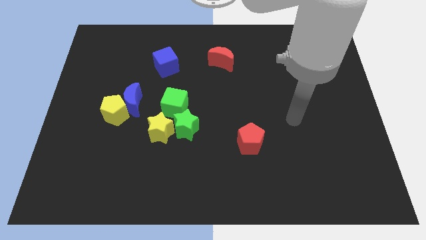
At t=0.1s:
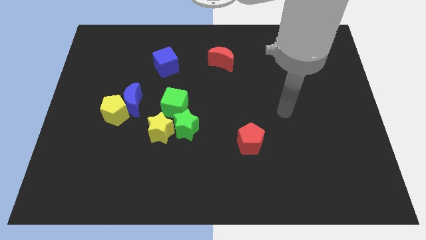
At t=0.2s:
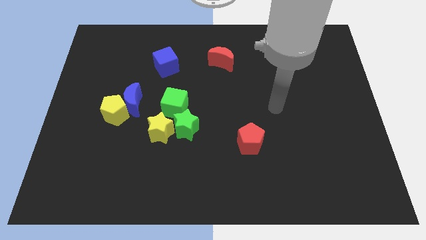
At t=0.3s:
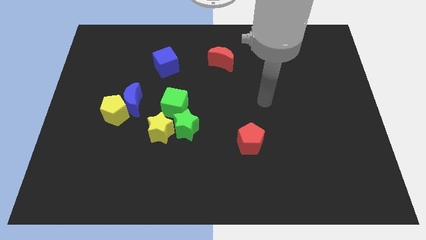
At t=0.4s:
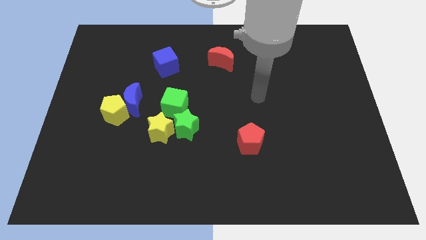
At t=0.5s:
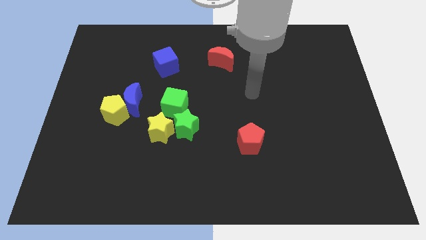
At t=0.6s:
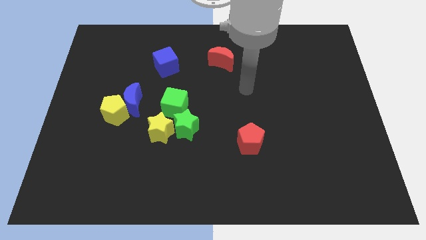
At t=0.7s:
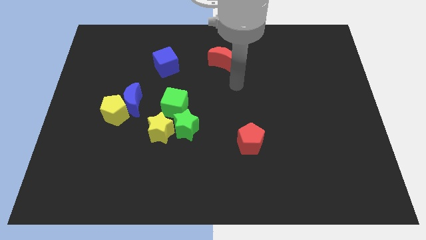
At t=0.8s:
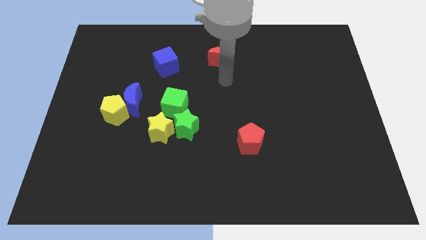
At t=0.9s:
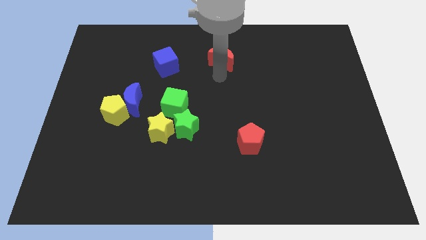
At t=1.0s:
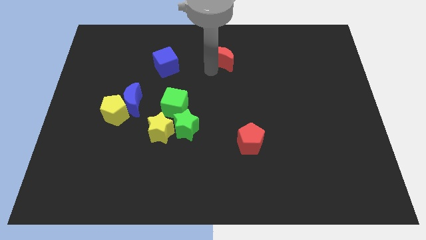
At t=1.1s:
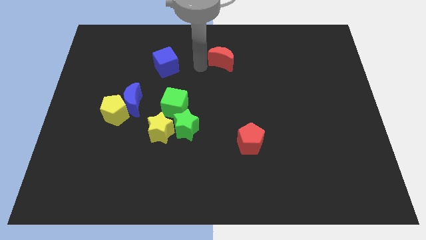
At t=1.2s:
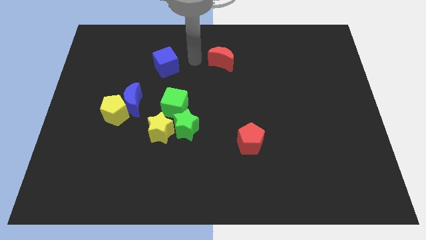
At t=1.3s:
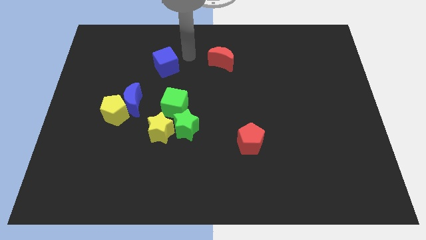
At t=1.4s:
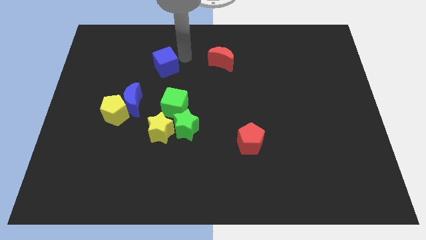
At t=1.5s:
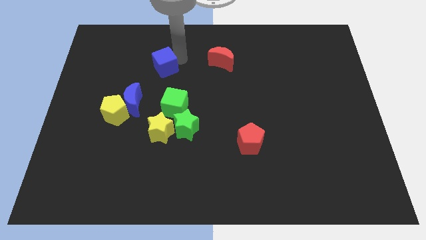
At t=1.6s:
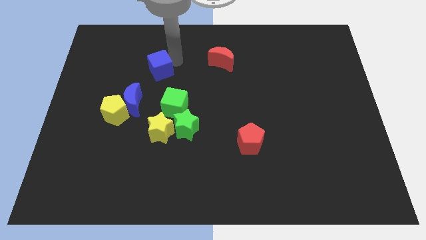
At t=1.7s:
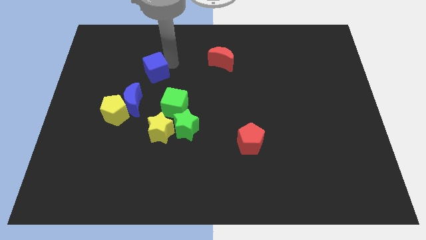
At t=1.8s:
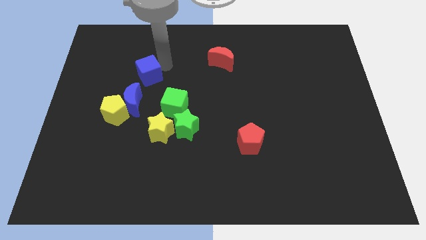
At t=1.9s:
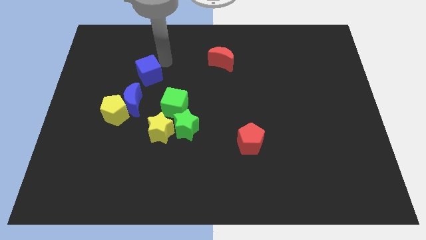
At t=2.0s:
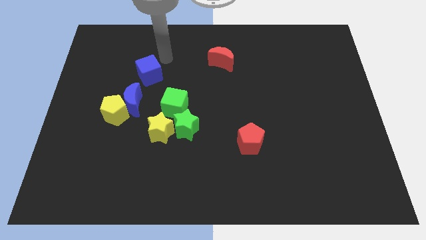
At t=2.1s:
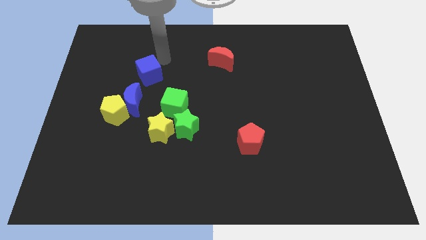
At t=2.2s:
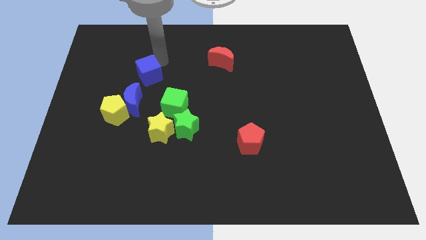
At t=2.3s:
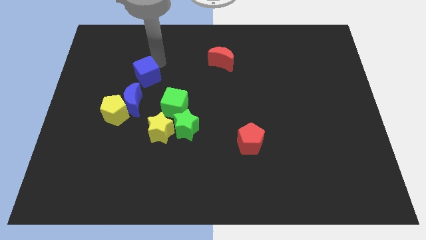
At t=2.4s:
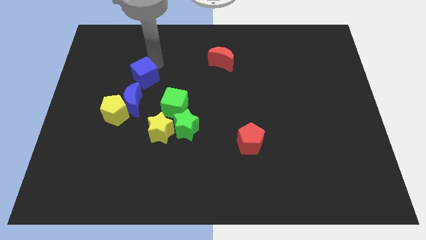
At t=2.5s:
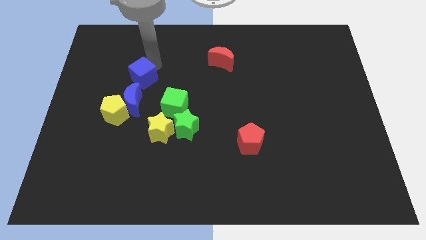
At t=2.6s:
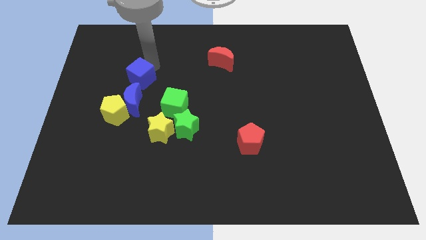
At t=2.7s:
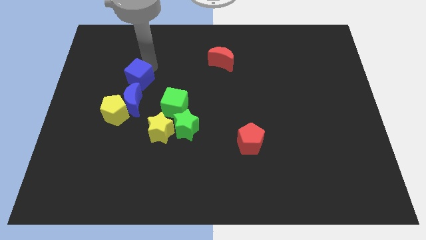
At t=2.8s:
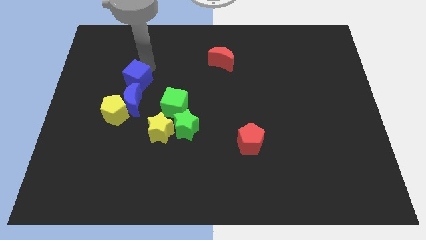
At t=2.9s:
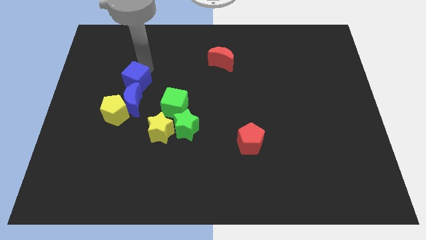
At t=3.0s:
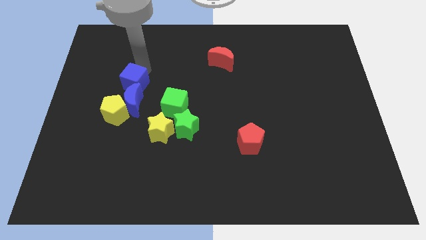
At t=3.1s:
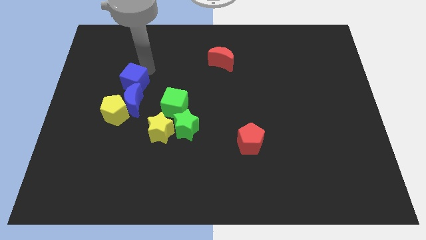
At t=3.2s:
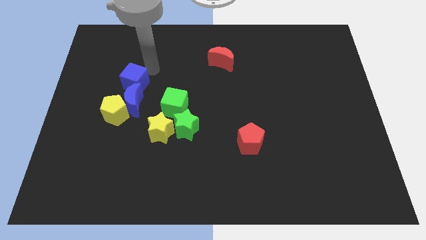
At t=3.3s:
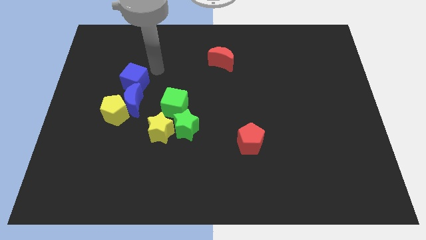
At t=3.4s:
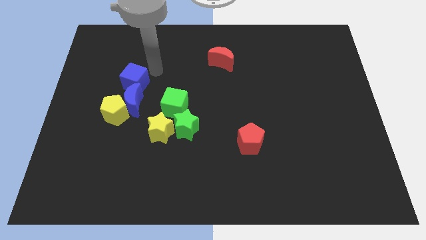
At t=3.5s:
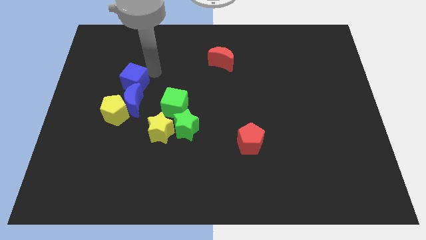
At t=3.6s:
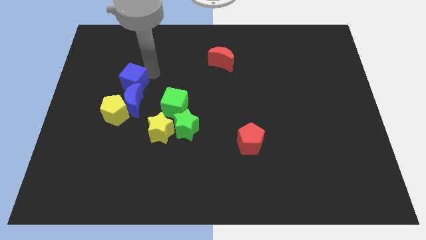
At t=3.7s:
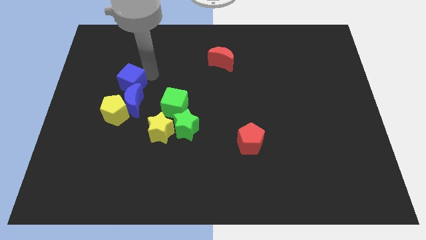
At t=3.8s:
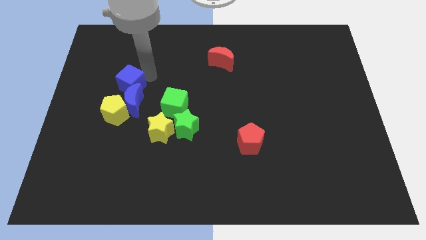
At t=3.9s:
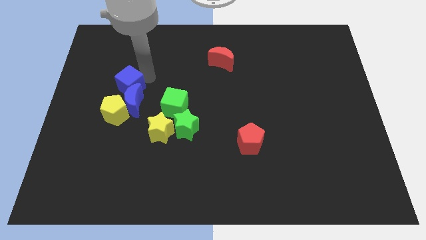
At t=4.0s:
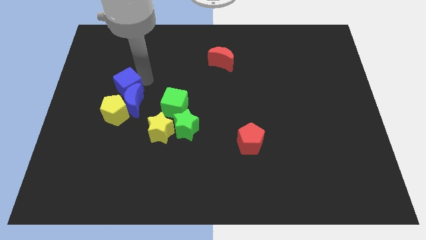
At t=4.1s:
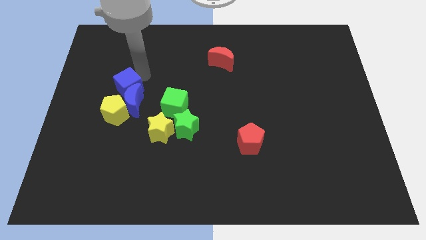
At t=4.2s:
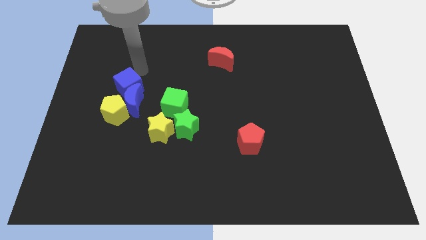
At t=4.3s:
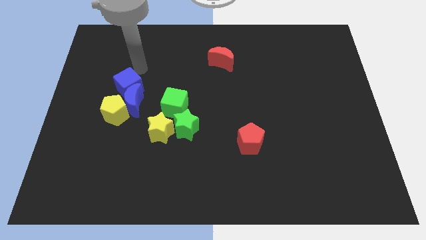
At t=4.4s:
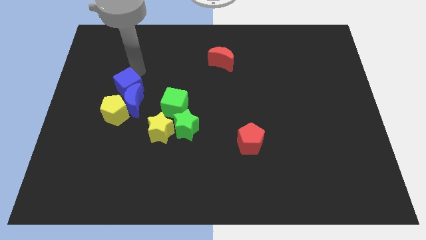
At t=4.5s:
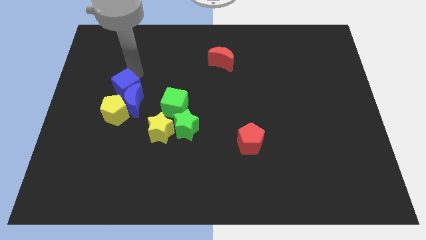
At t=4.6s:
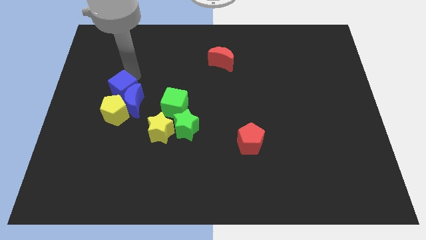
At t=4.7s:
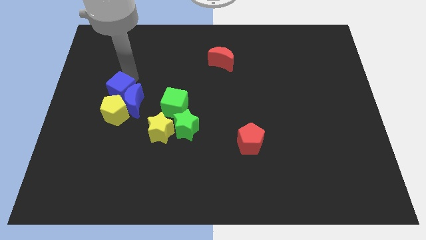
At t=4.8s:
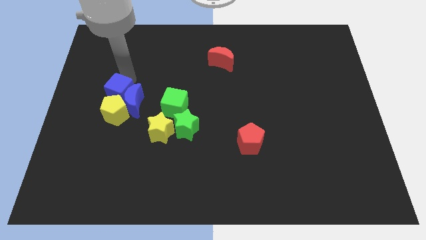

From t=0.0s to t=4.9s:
move the blue cube next to the yellow pentagon

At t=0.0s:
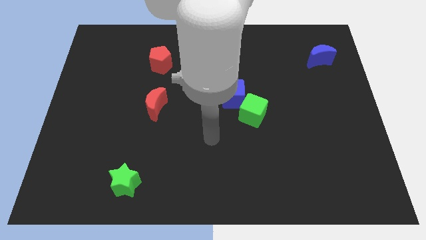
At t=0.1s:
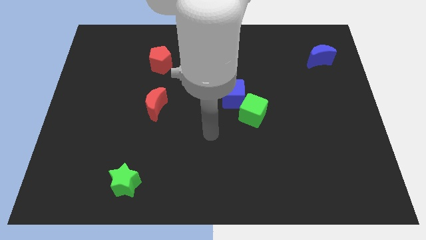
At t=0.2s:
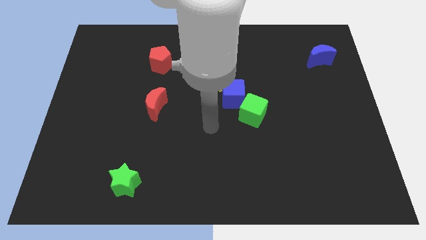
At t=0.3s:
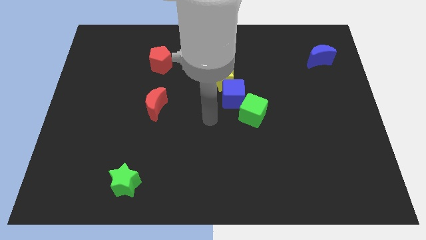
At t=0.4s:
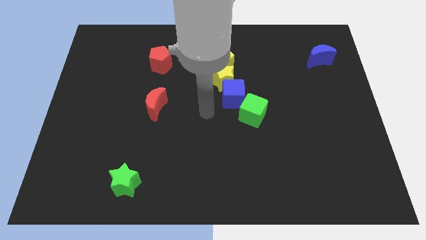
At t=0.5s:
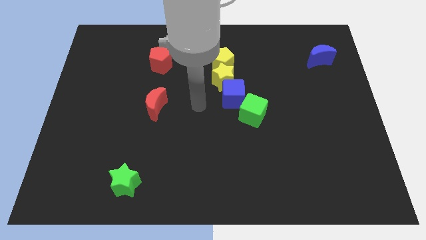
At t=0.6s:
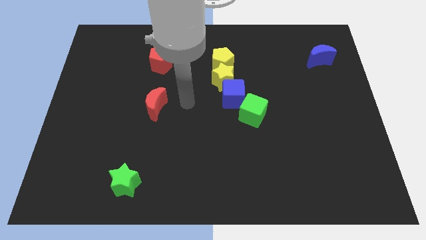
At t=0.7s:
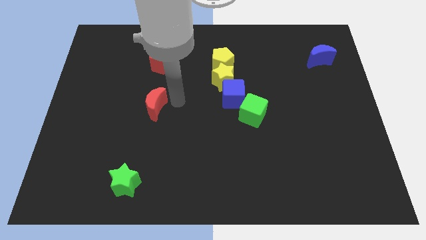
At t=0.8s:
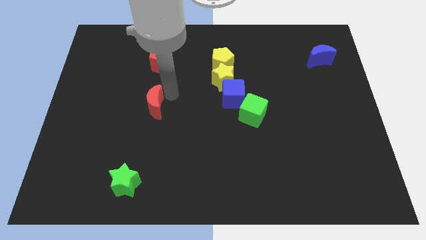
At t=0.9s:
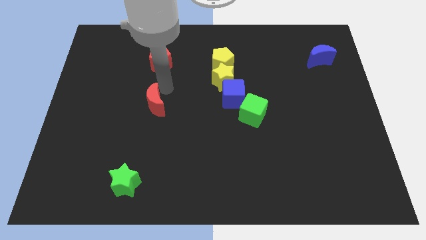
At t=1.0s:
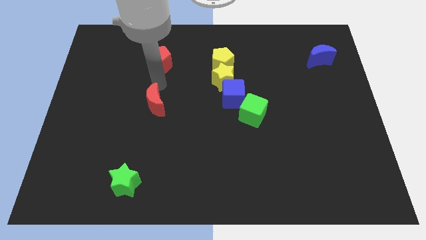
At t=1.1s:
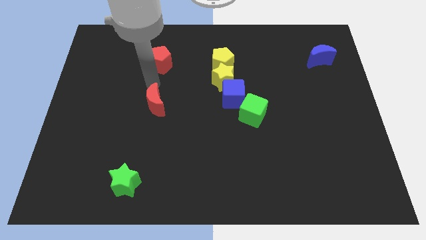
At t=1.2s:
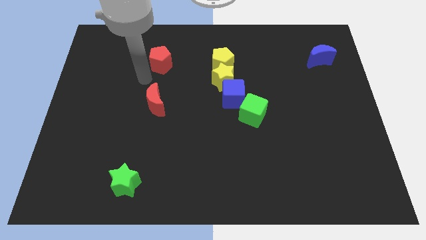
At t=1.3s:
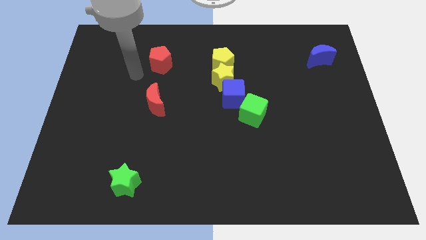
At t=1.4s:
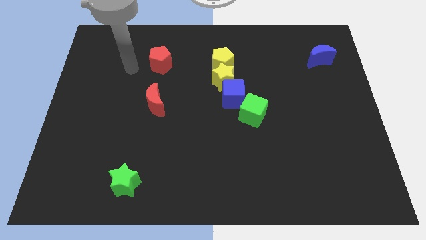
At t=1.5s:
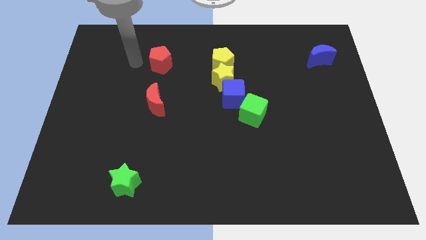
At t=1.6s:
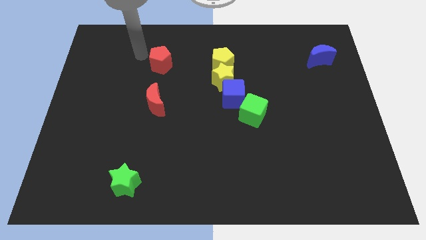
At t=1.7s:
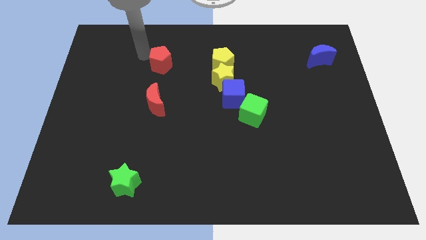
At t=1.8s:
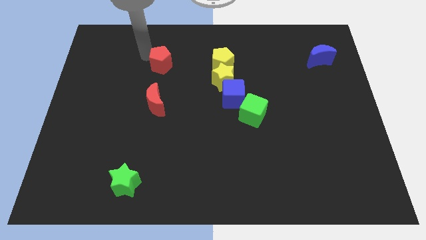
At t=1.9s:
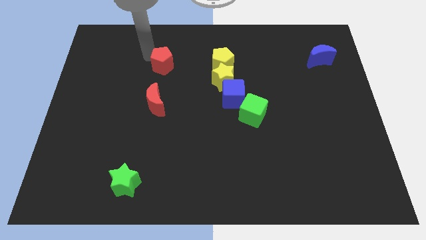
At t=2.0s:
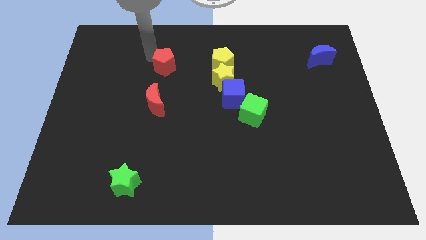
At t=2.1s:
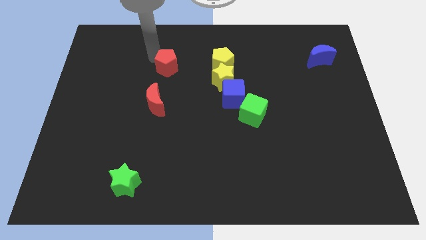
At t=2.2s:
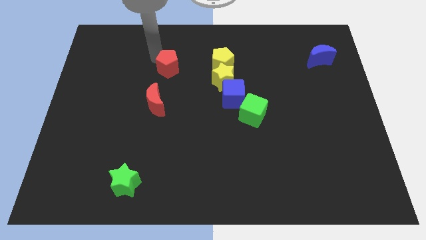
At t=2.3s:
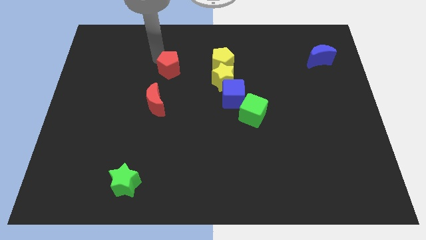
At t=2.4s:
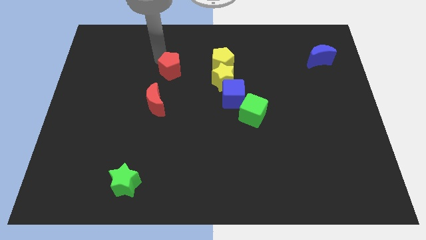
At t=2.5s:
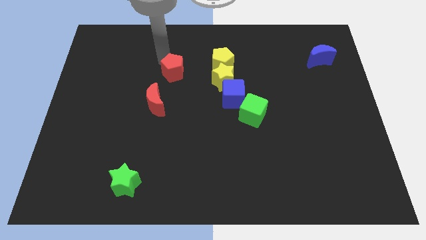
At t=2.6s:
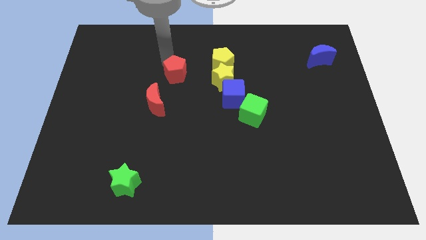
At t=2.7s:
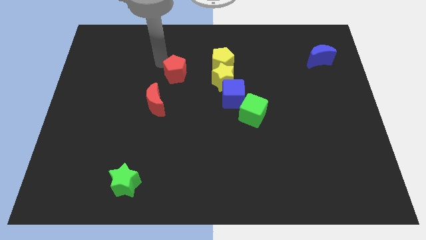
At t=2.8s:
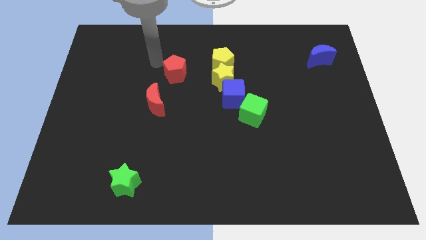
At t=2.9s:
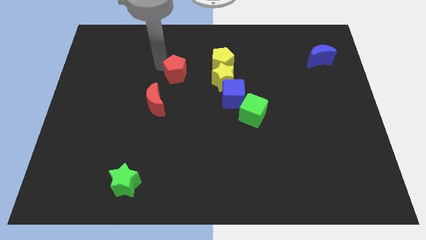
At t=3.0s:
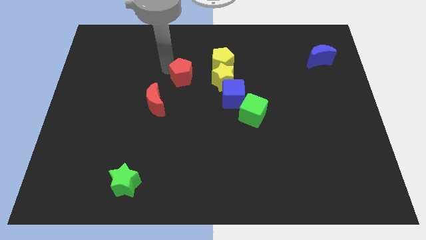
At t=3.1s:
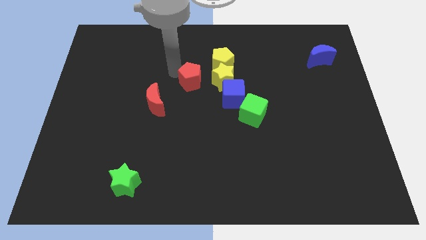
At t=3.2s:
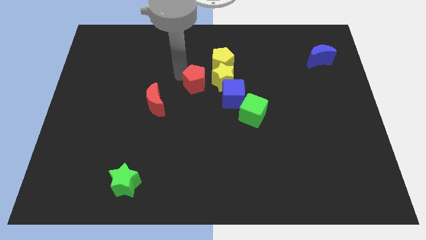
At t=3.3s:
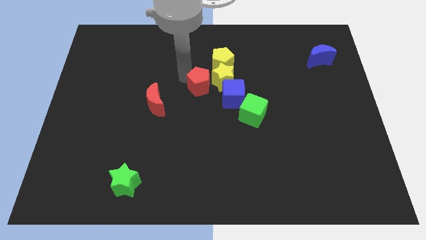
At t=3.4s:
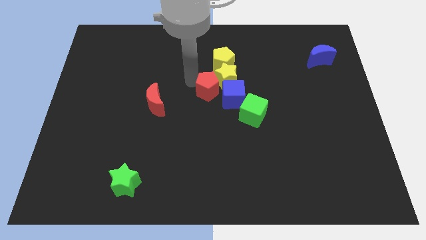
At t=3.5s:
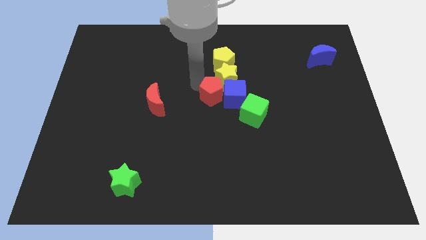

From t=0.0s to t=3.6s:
slide the red pentagon close to the blue cube
